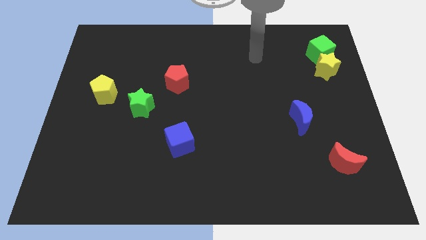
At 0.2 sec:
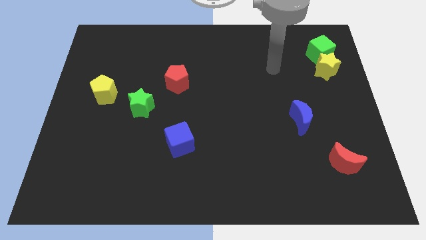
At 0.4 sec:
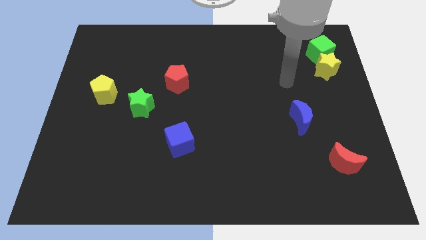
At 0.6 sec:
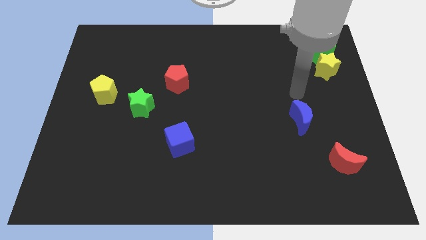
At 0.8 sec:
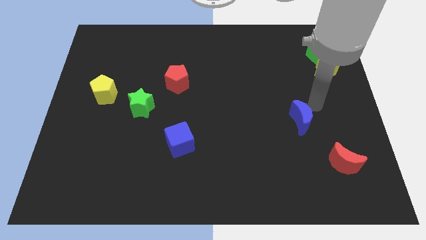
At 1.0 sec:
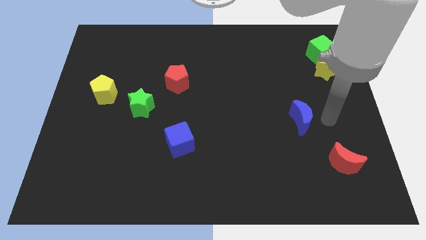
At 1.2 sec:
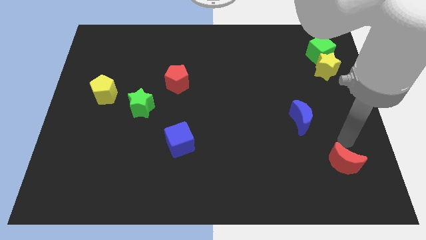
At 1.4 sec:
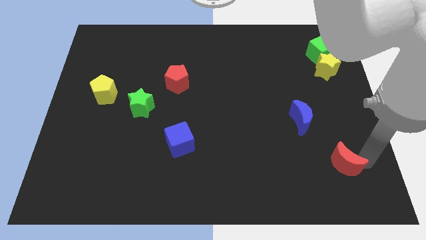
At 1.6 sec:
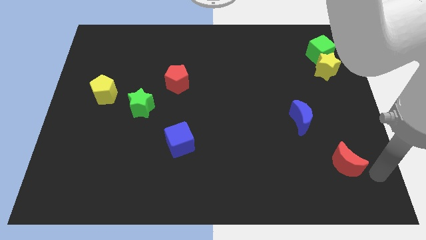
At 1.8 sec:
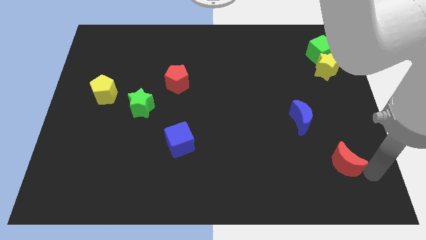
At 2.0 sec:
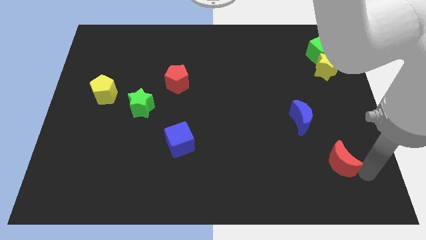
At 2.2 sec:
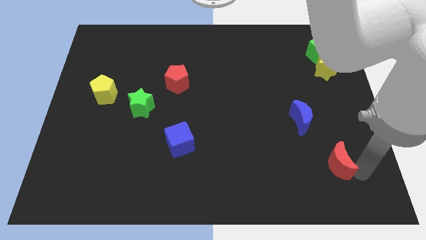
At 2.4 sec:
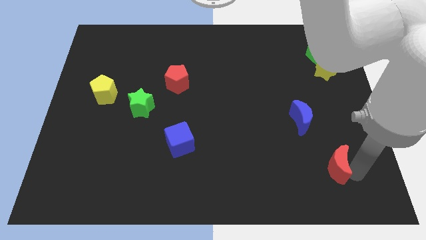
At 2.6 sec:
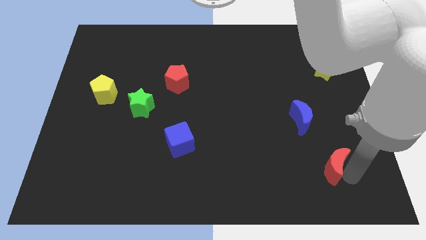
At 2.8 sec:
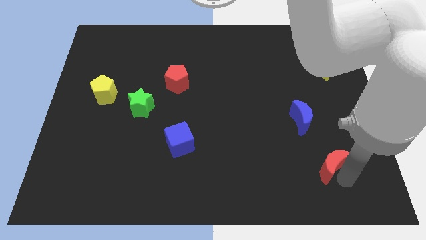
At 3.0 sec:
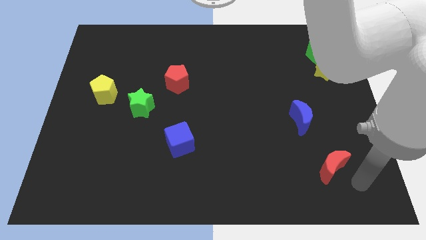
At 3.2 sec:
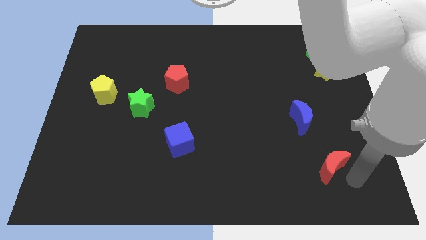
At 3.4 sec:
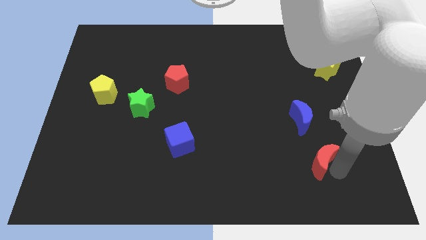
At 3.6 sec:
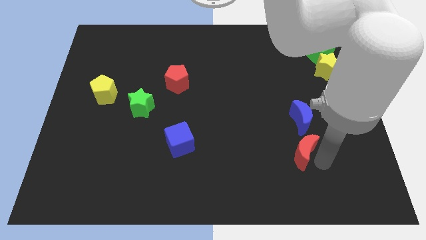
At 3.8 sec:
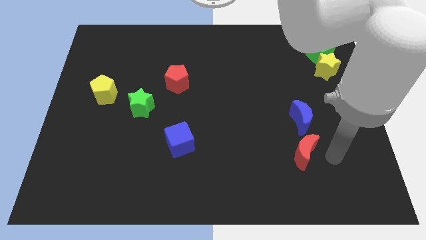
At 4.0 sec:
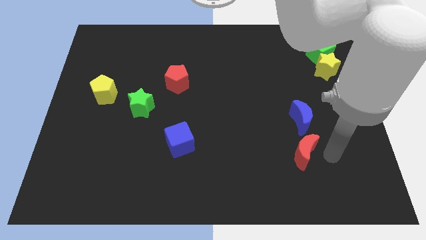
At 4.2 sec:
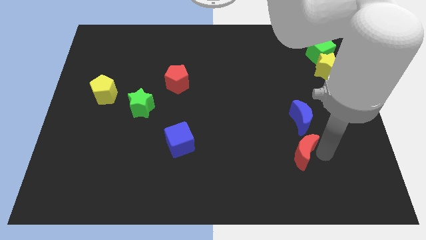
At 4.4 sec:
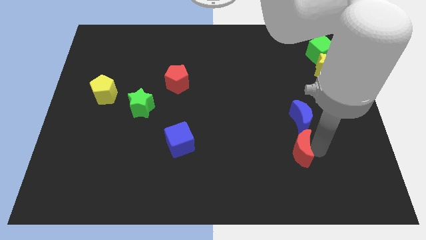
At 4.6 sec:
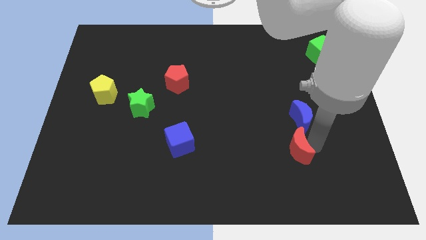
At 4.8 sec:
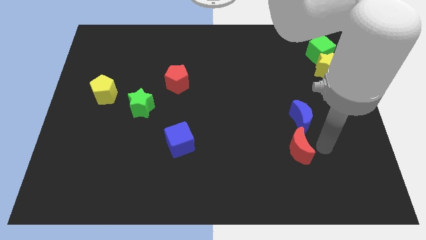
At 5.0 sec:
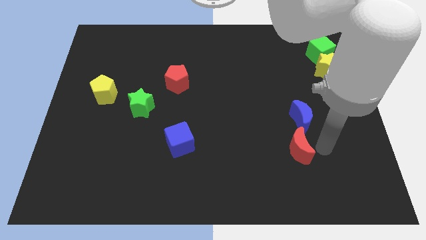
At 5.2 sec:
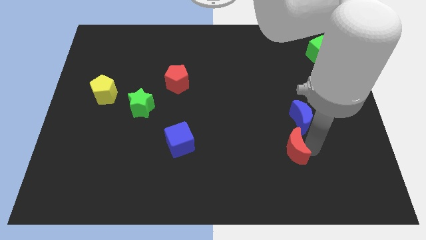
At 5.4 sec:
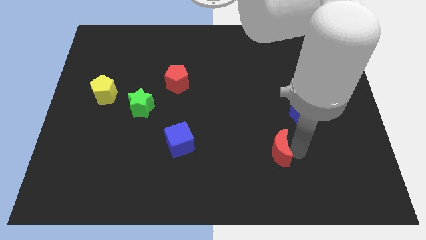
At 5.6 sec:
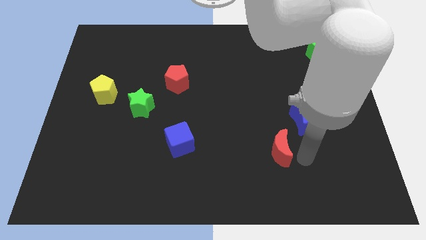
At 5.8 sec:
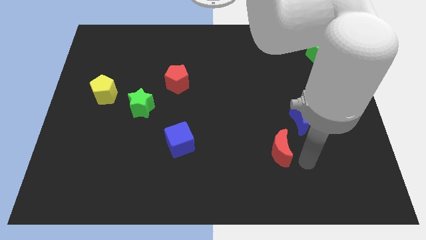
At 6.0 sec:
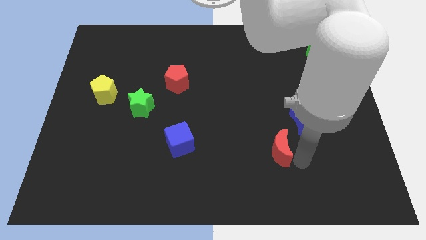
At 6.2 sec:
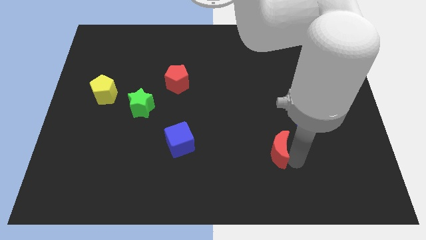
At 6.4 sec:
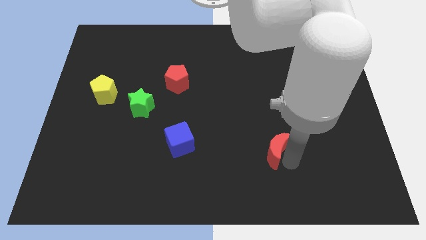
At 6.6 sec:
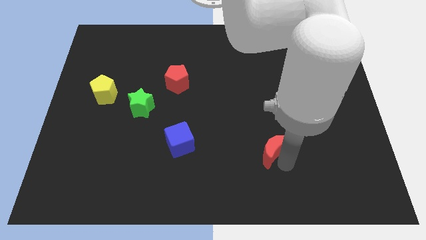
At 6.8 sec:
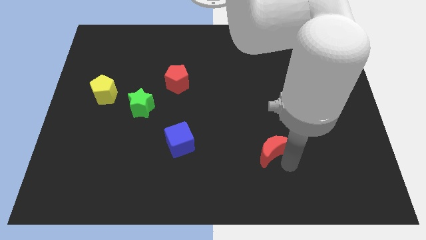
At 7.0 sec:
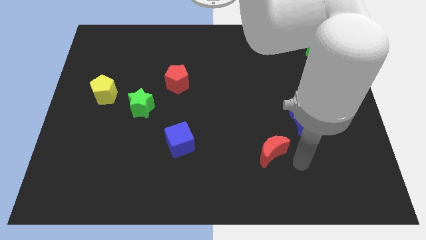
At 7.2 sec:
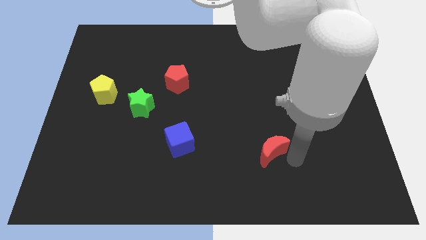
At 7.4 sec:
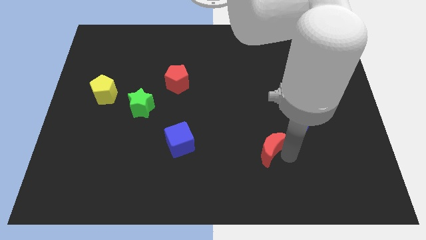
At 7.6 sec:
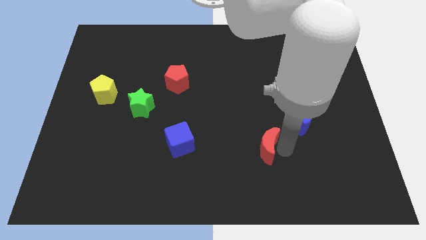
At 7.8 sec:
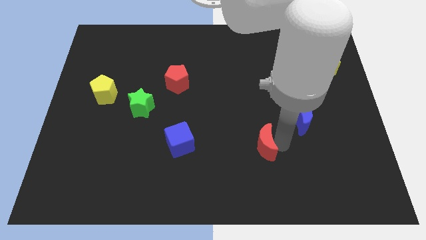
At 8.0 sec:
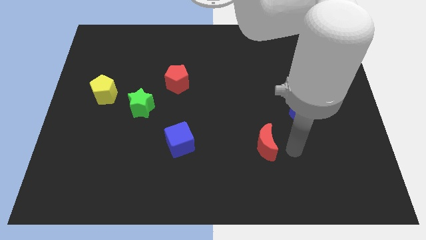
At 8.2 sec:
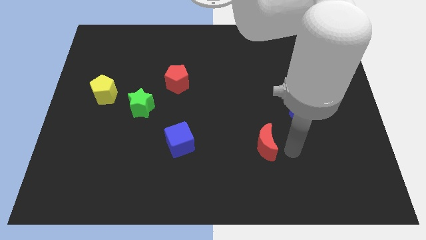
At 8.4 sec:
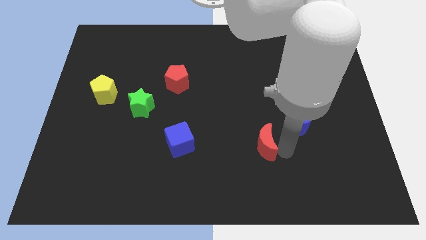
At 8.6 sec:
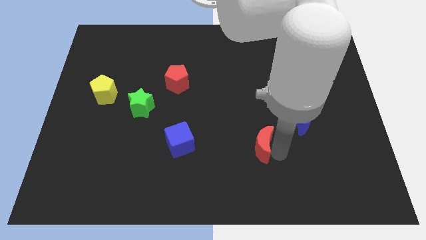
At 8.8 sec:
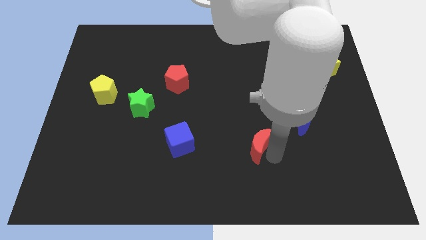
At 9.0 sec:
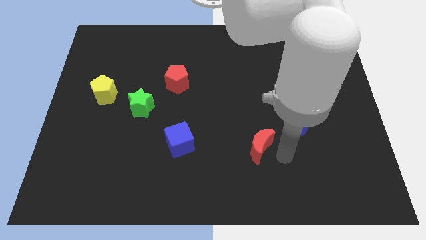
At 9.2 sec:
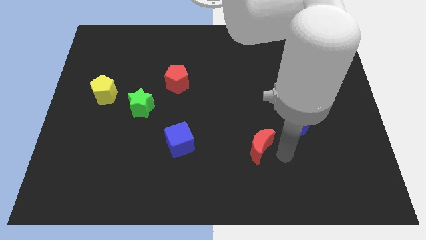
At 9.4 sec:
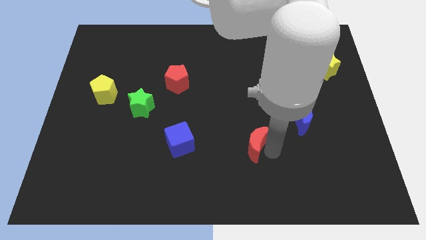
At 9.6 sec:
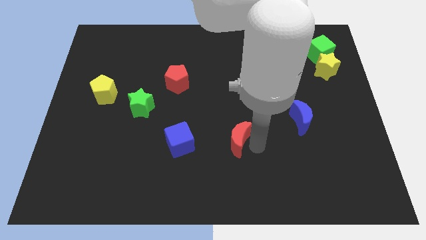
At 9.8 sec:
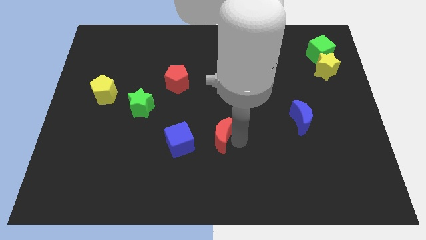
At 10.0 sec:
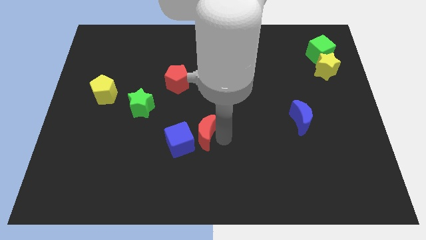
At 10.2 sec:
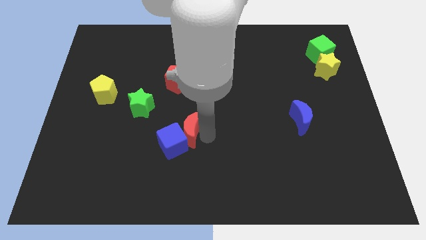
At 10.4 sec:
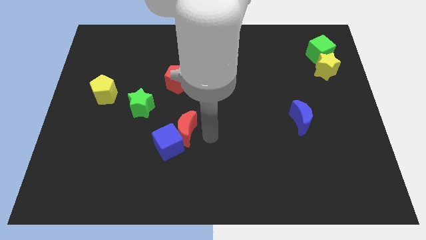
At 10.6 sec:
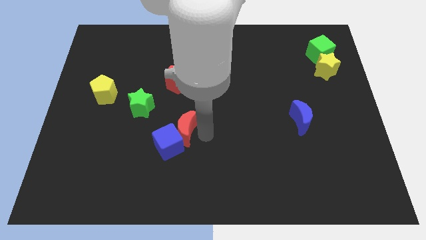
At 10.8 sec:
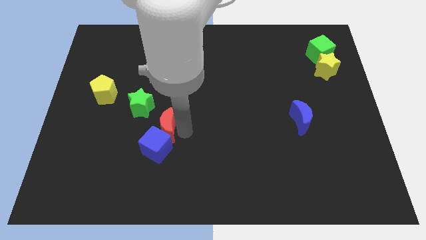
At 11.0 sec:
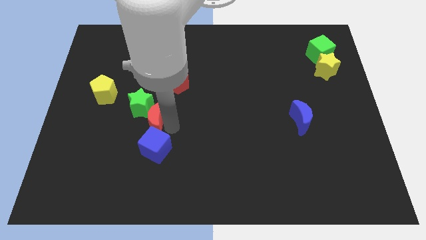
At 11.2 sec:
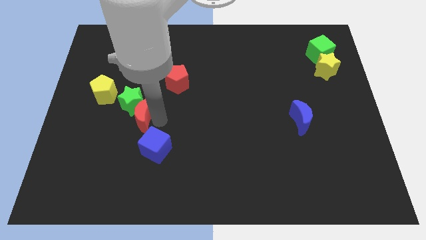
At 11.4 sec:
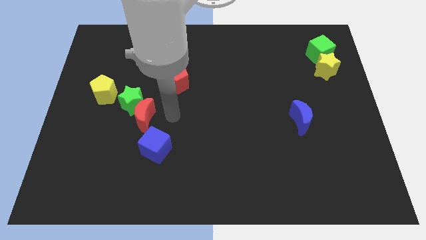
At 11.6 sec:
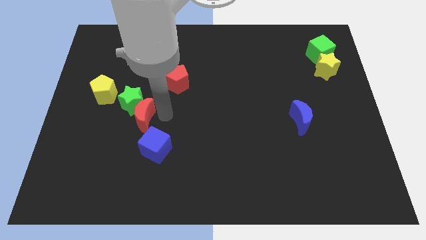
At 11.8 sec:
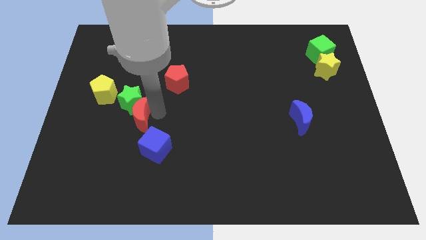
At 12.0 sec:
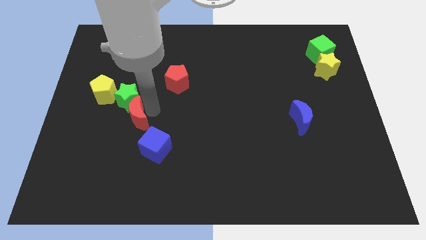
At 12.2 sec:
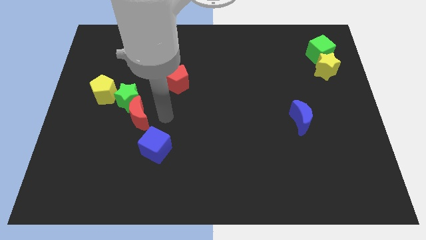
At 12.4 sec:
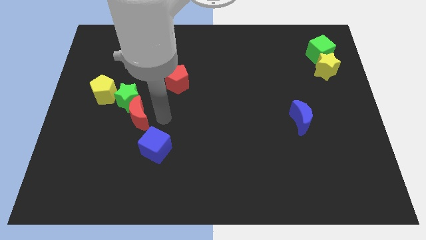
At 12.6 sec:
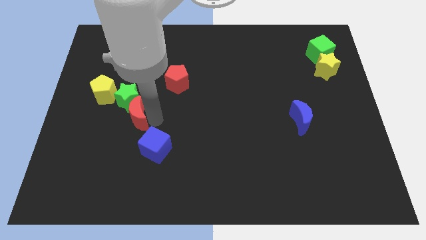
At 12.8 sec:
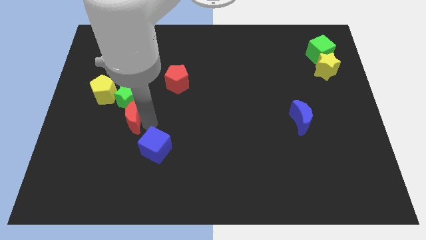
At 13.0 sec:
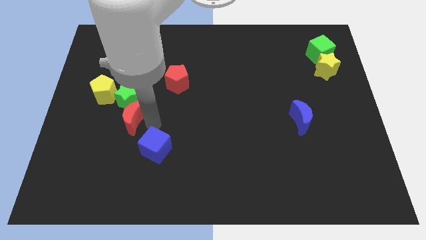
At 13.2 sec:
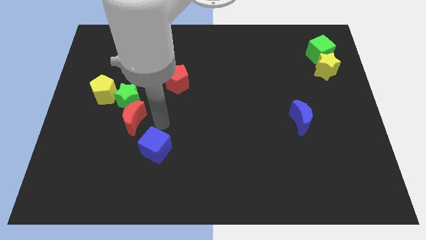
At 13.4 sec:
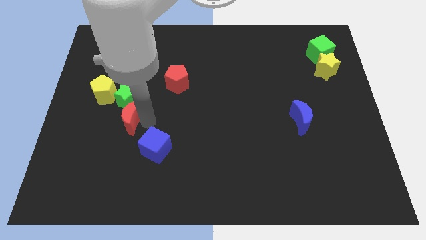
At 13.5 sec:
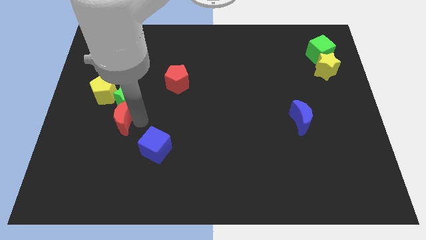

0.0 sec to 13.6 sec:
put the red moon diagonally down and to the left of the green star
